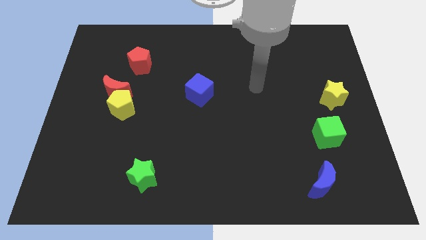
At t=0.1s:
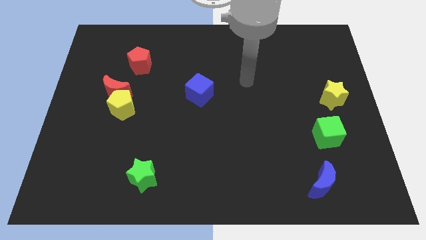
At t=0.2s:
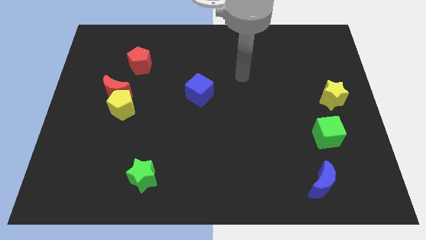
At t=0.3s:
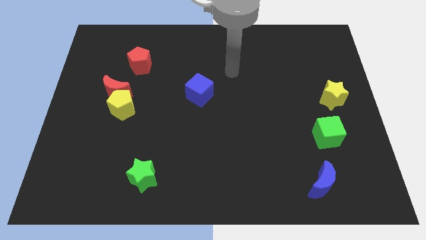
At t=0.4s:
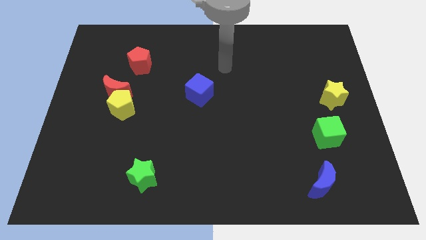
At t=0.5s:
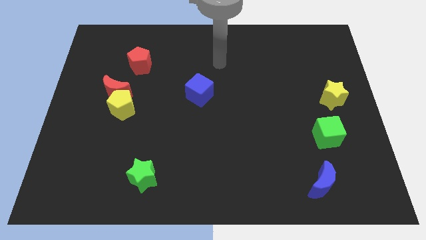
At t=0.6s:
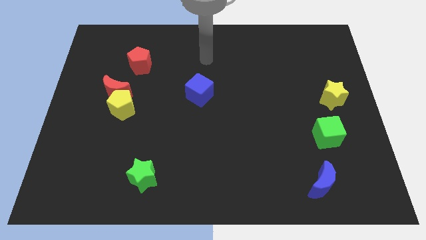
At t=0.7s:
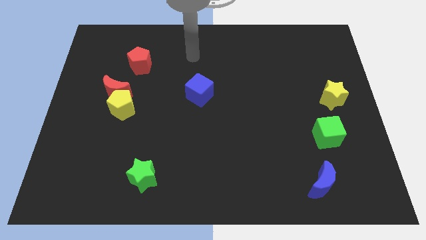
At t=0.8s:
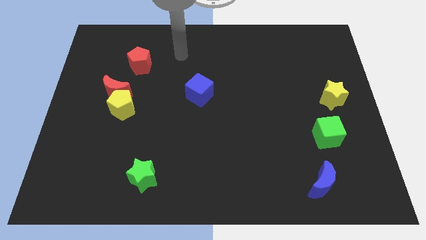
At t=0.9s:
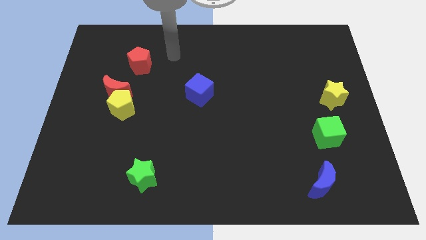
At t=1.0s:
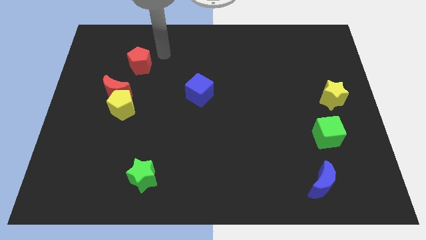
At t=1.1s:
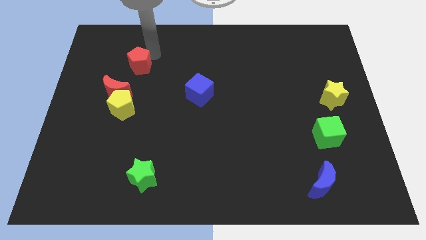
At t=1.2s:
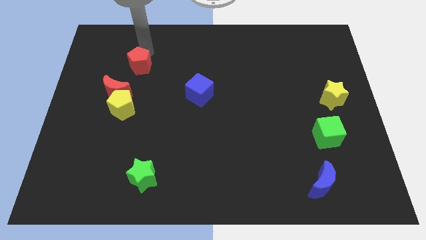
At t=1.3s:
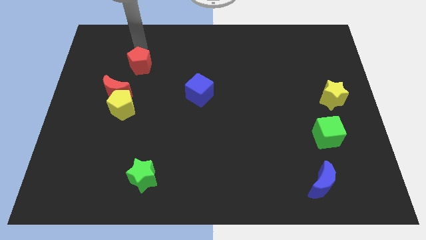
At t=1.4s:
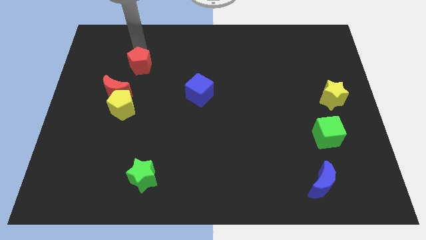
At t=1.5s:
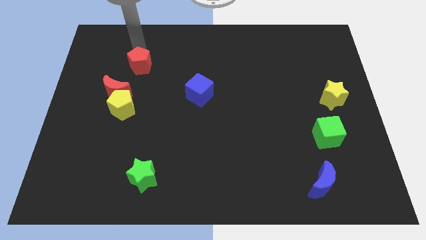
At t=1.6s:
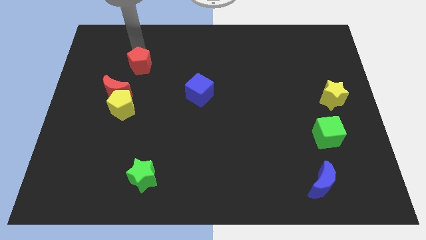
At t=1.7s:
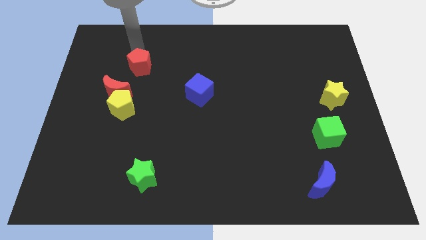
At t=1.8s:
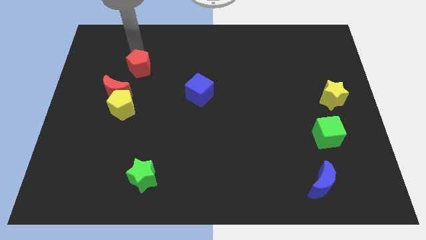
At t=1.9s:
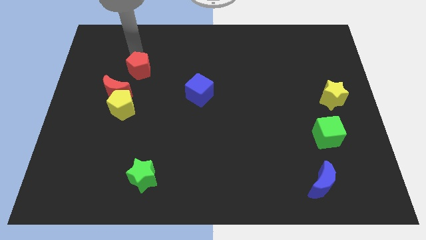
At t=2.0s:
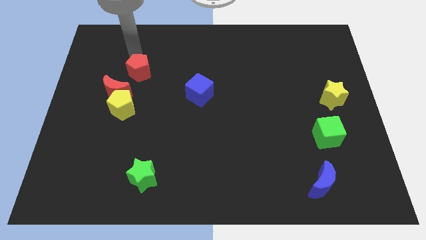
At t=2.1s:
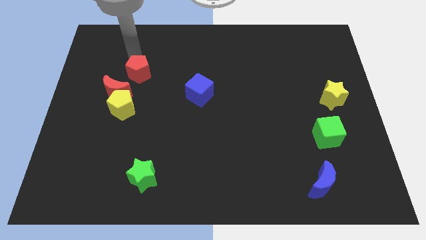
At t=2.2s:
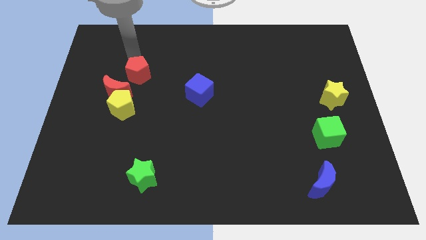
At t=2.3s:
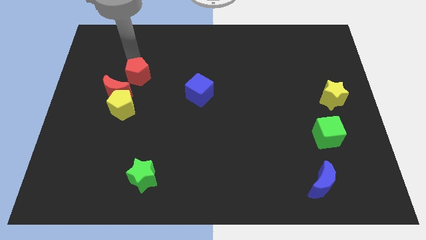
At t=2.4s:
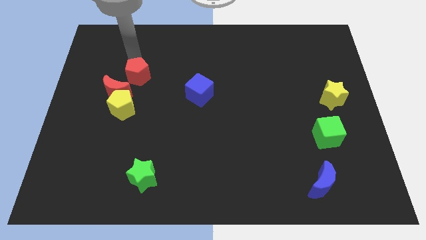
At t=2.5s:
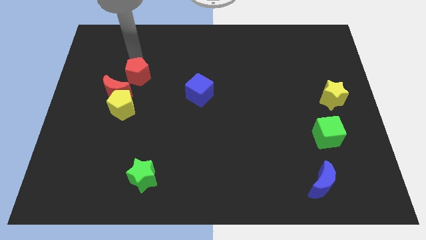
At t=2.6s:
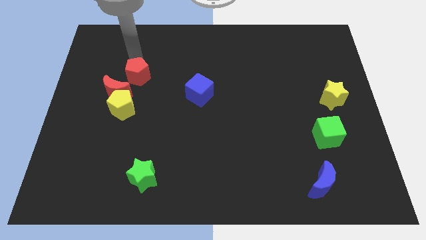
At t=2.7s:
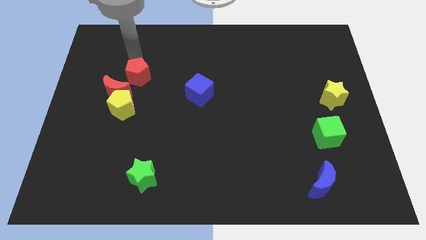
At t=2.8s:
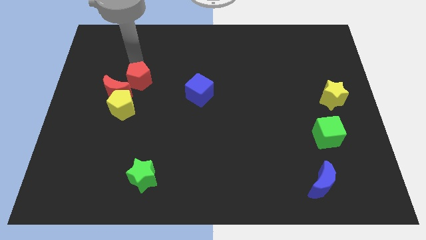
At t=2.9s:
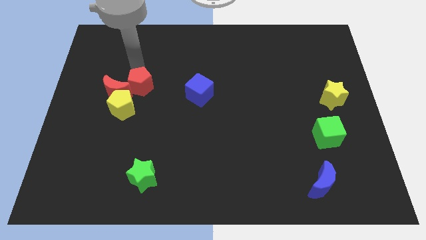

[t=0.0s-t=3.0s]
slightly move the red pentagon downwards

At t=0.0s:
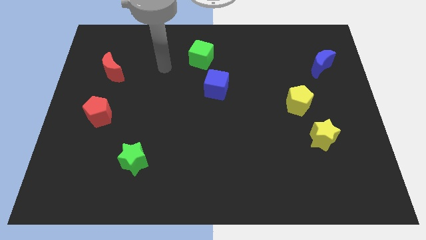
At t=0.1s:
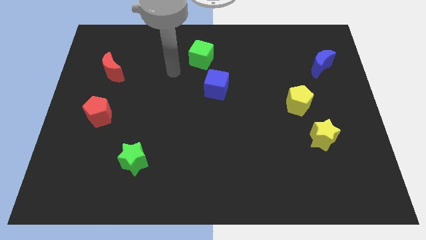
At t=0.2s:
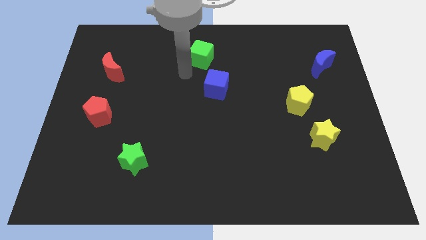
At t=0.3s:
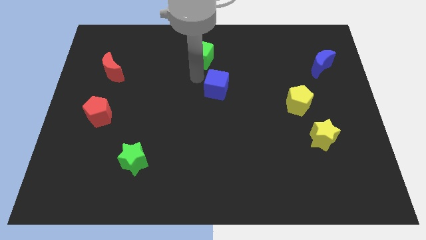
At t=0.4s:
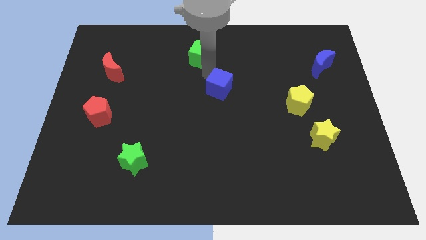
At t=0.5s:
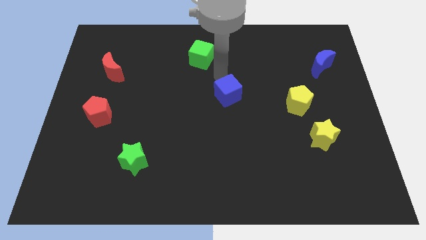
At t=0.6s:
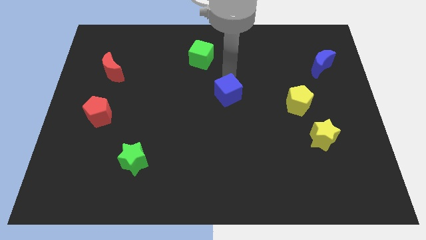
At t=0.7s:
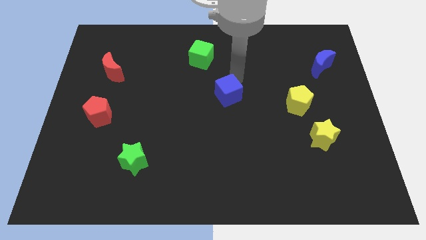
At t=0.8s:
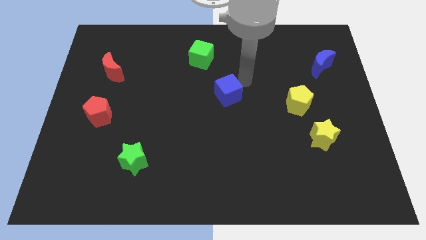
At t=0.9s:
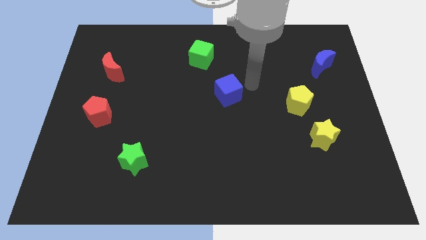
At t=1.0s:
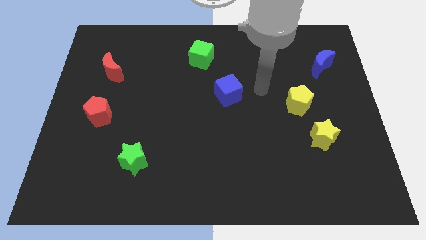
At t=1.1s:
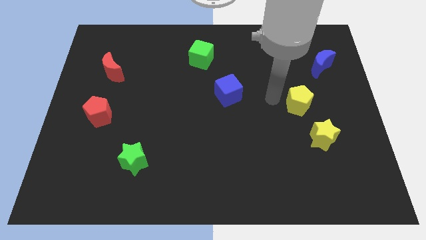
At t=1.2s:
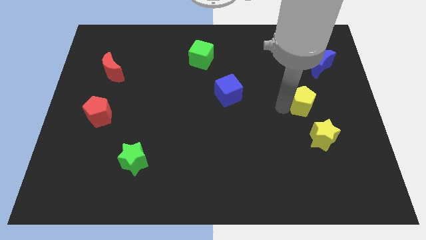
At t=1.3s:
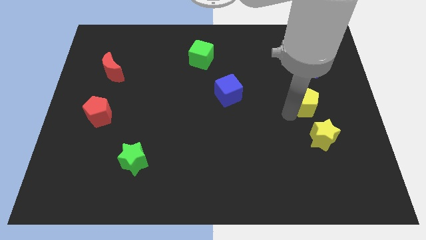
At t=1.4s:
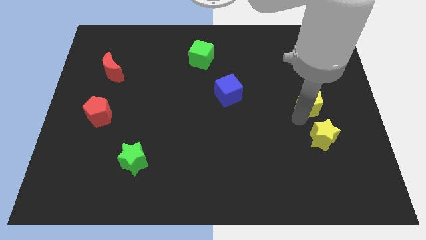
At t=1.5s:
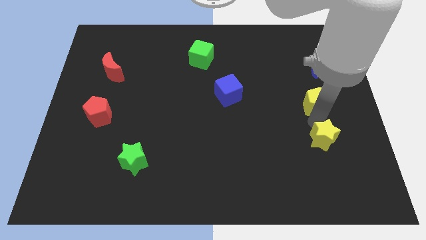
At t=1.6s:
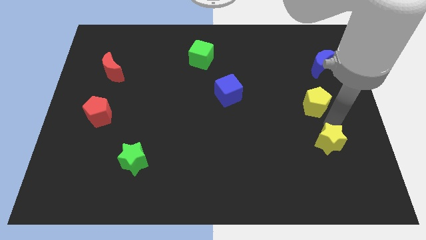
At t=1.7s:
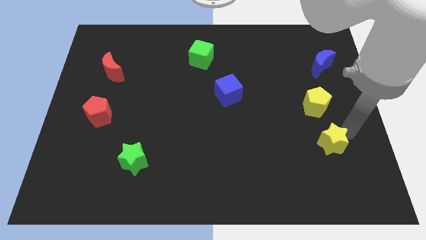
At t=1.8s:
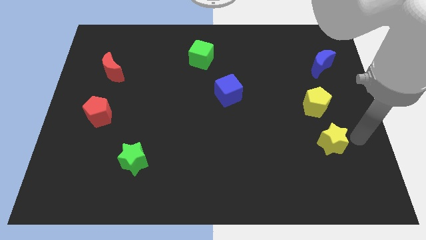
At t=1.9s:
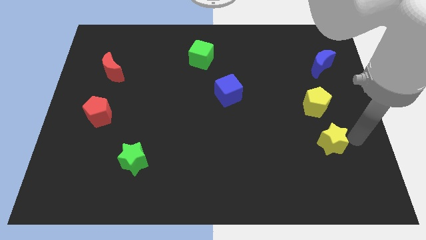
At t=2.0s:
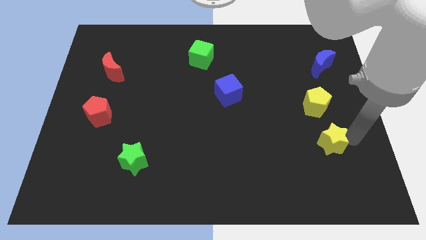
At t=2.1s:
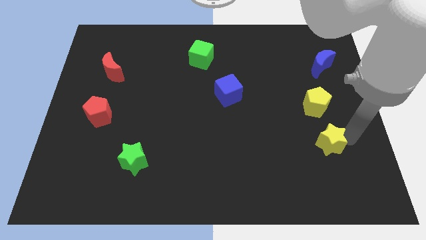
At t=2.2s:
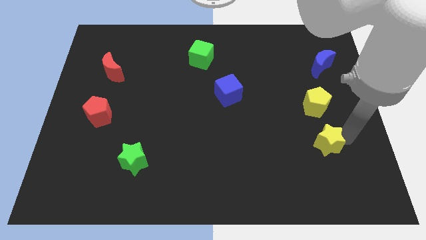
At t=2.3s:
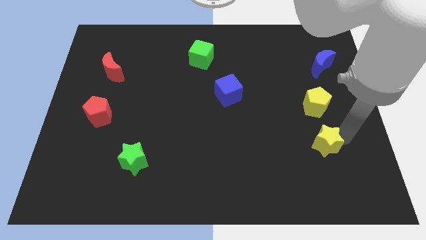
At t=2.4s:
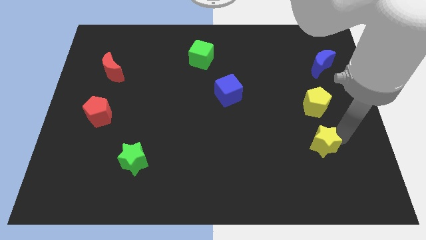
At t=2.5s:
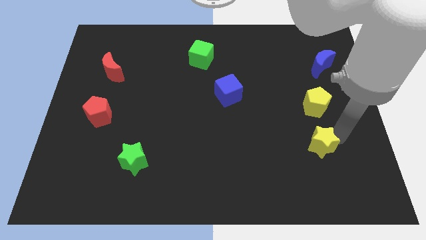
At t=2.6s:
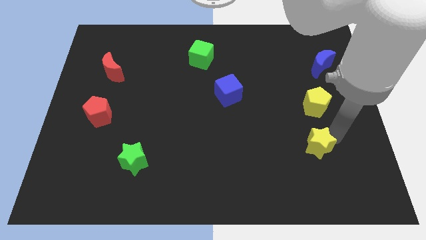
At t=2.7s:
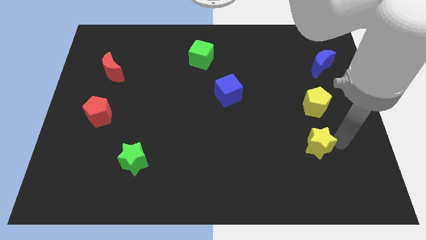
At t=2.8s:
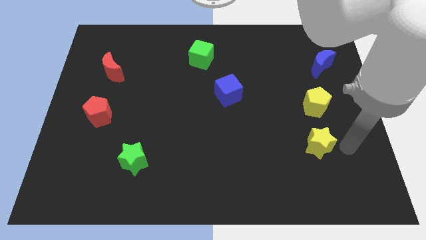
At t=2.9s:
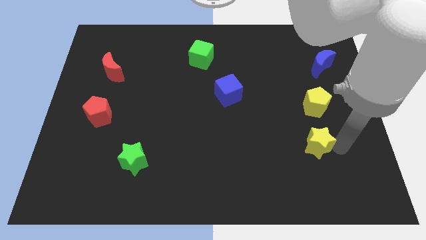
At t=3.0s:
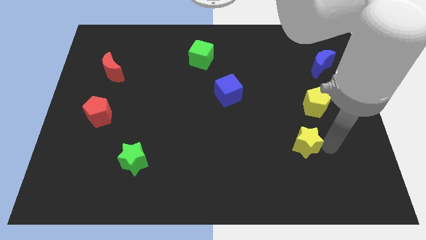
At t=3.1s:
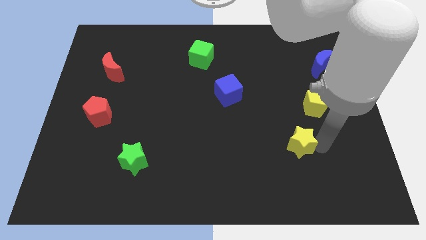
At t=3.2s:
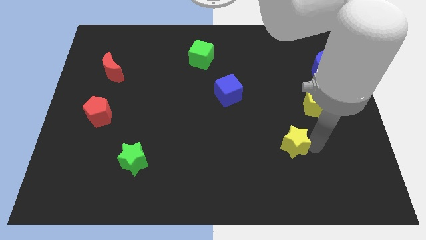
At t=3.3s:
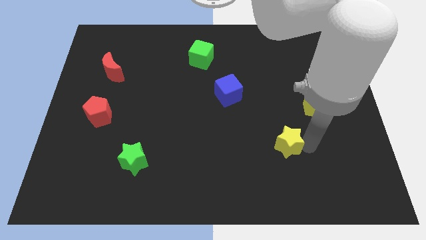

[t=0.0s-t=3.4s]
push the yellow star to the left a little

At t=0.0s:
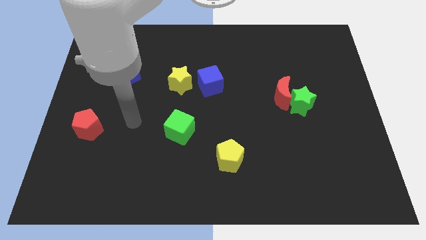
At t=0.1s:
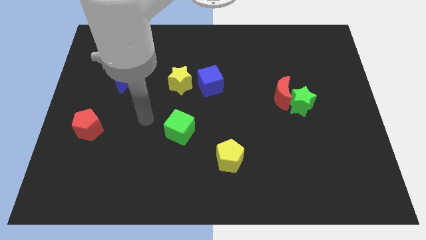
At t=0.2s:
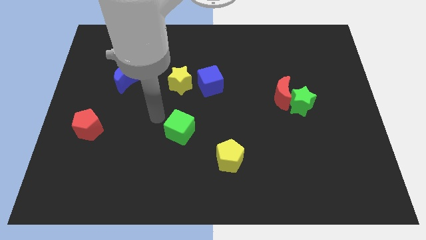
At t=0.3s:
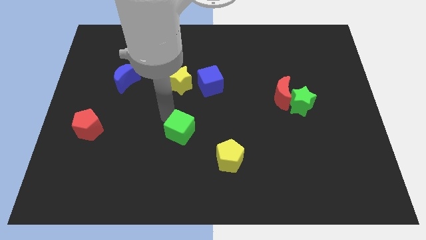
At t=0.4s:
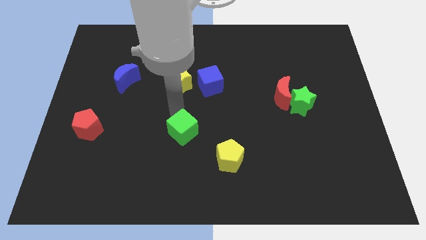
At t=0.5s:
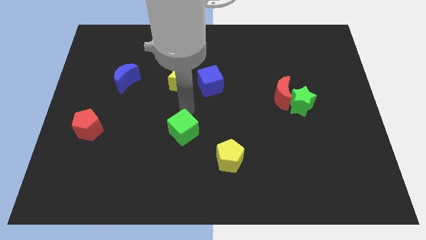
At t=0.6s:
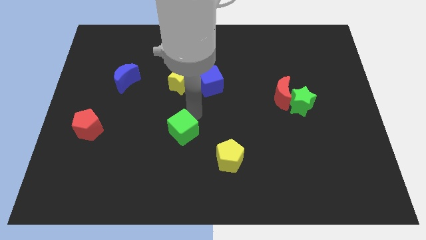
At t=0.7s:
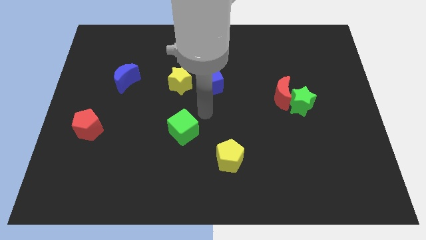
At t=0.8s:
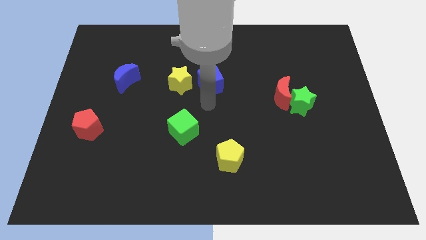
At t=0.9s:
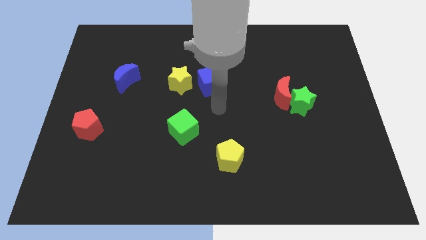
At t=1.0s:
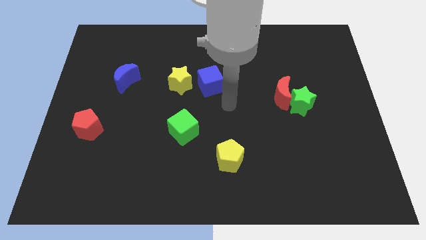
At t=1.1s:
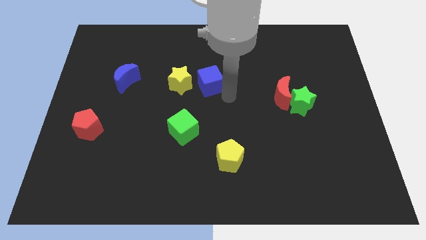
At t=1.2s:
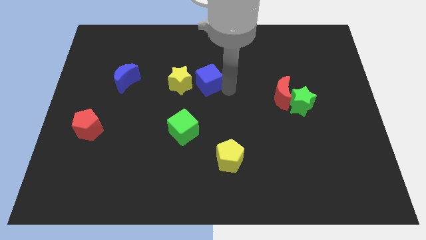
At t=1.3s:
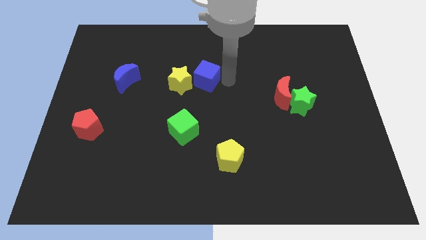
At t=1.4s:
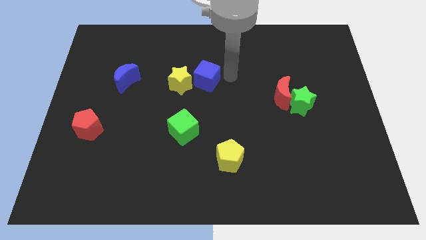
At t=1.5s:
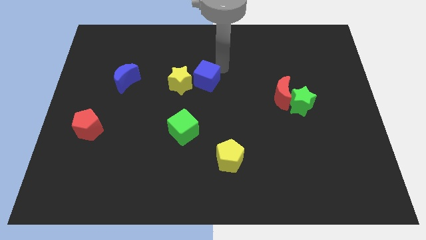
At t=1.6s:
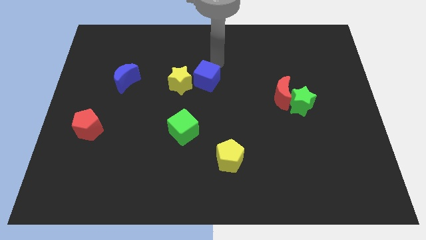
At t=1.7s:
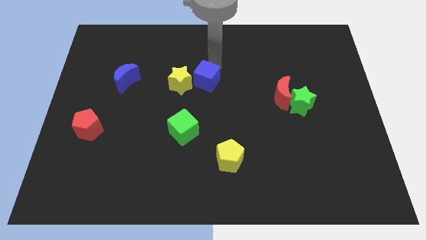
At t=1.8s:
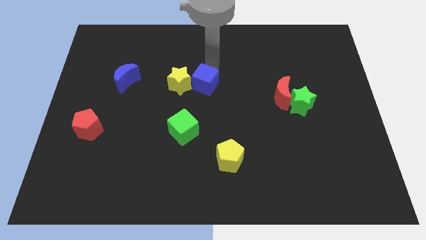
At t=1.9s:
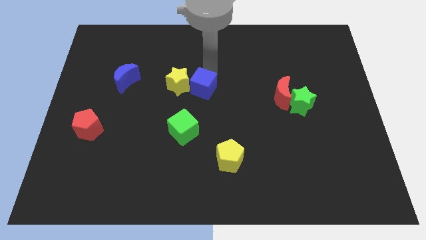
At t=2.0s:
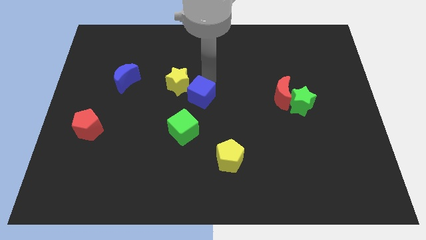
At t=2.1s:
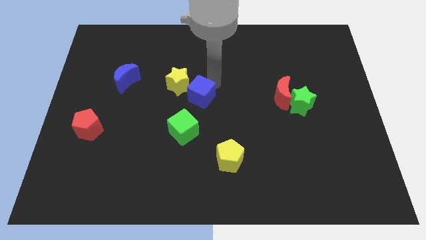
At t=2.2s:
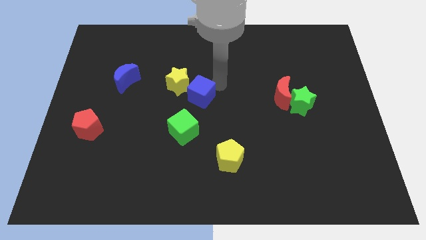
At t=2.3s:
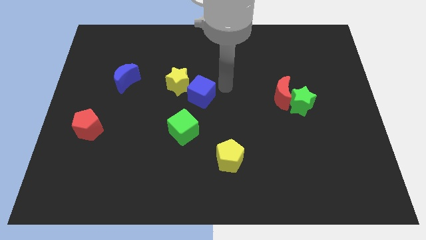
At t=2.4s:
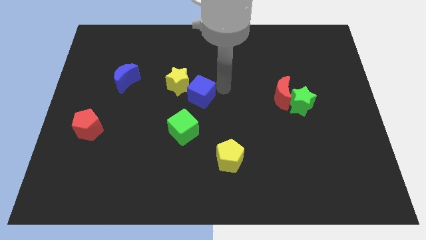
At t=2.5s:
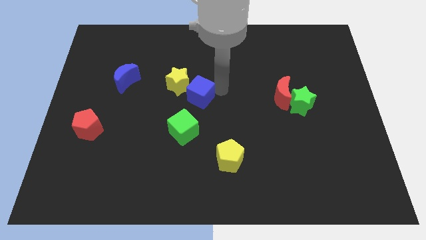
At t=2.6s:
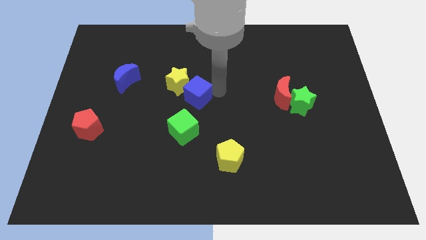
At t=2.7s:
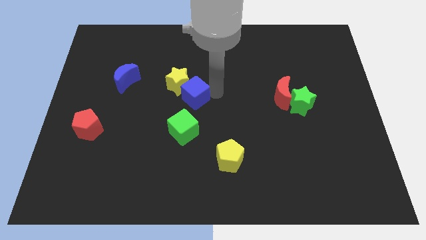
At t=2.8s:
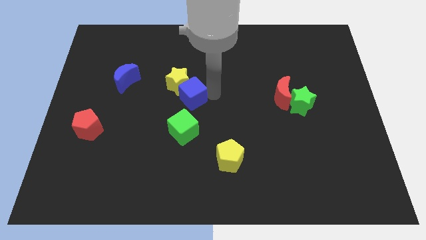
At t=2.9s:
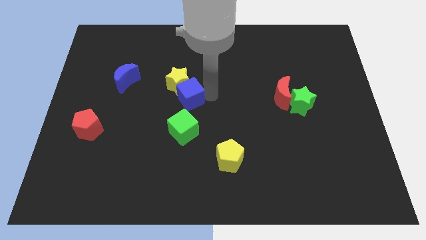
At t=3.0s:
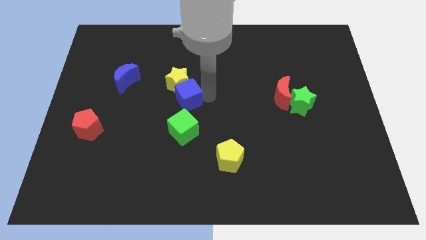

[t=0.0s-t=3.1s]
move the blue cube down and to the left diagonally a little bit
